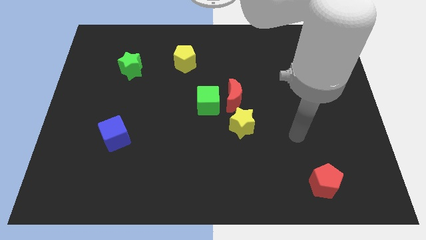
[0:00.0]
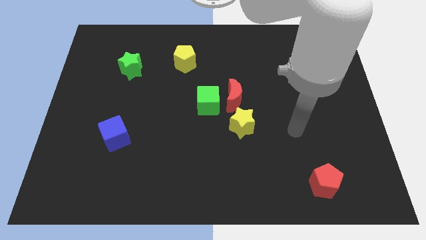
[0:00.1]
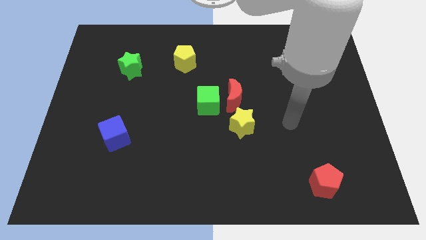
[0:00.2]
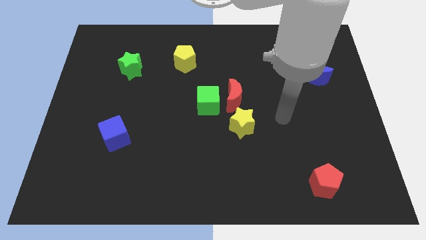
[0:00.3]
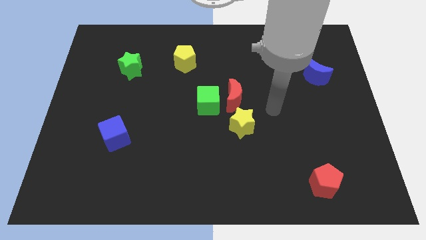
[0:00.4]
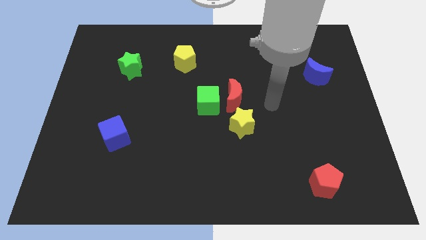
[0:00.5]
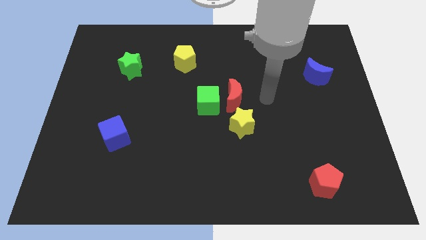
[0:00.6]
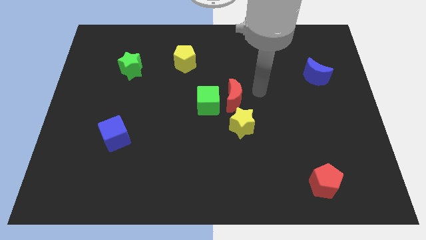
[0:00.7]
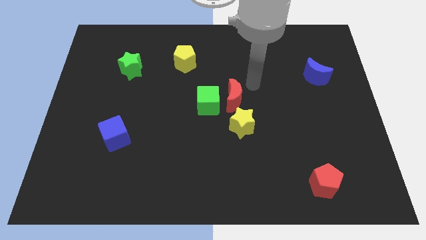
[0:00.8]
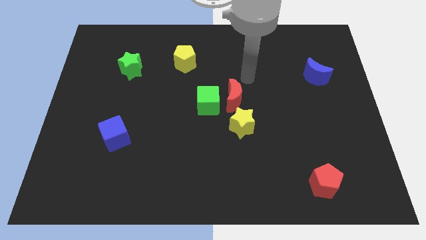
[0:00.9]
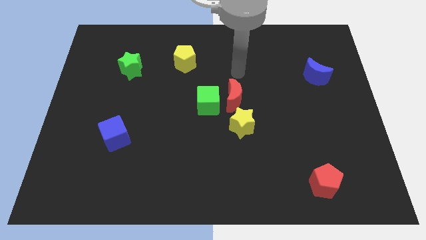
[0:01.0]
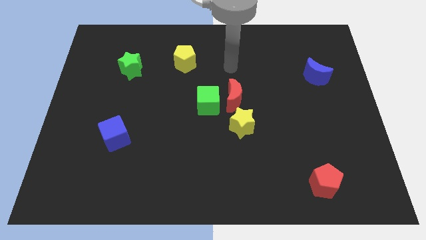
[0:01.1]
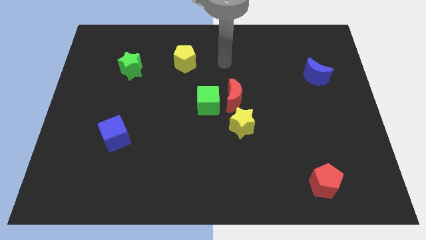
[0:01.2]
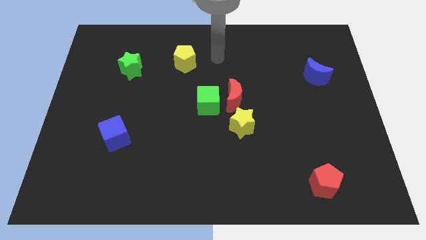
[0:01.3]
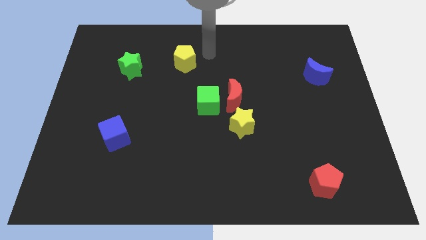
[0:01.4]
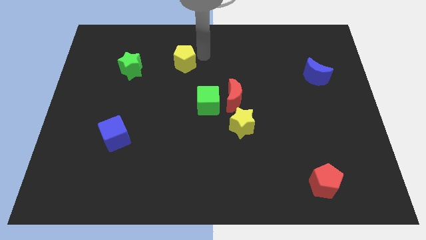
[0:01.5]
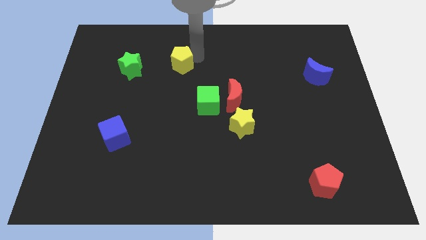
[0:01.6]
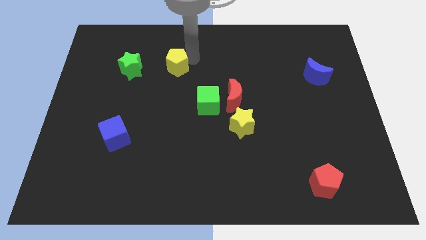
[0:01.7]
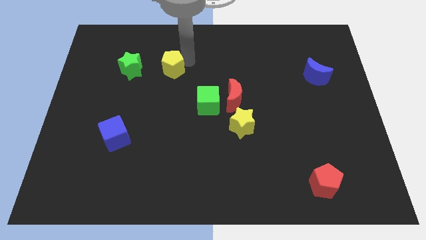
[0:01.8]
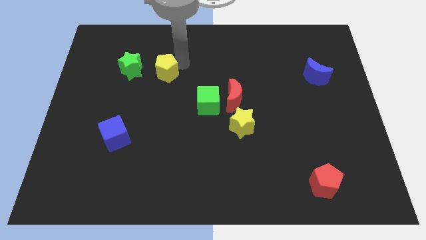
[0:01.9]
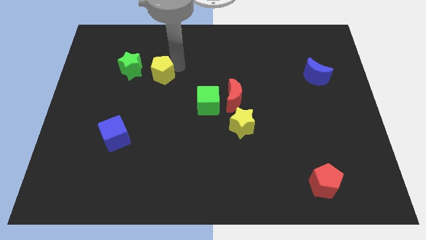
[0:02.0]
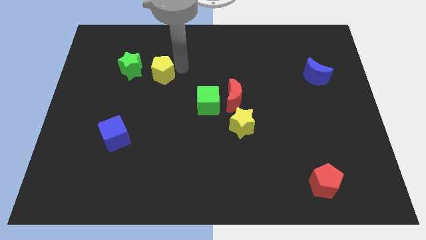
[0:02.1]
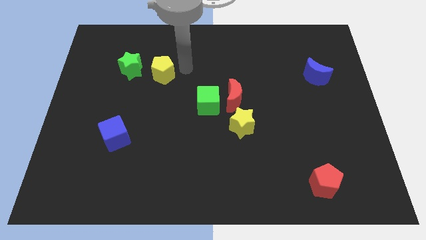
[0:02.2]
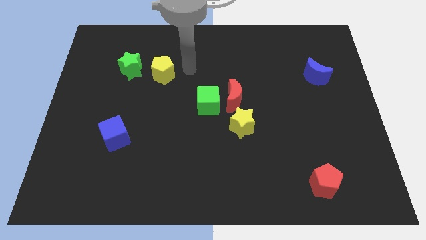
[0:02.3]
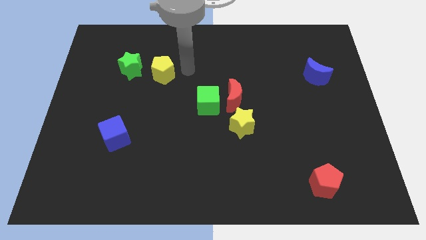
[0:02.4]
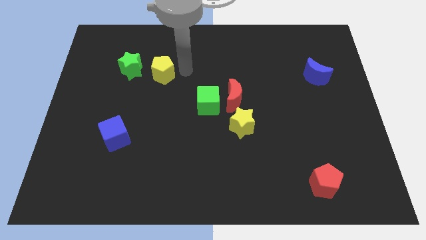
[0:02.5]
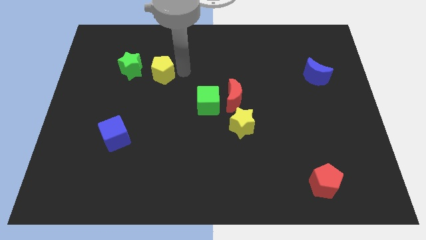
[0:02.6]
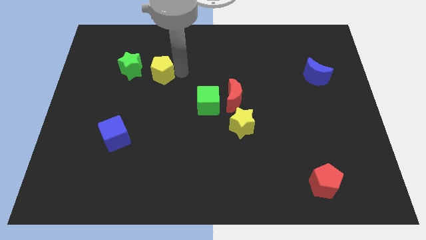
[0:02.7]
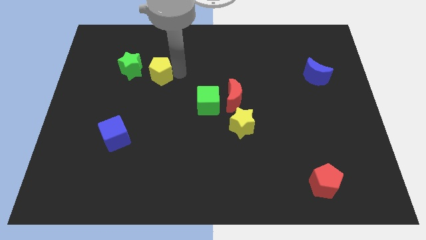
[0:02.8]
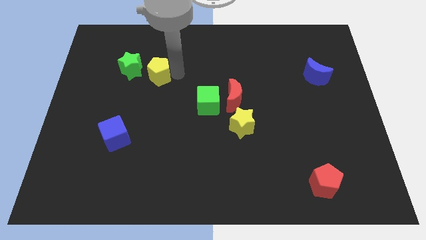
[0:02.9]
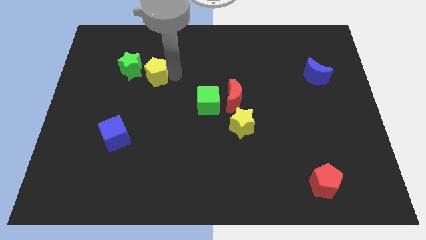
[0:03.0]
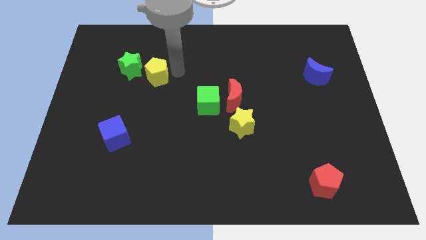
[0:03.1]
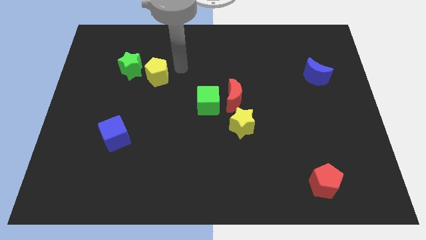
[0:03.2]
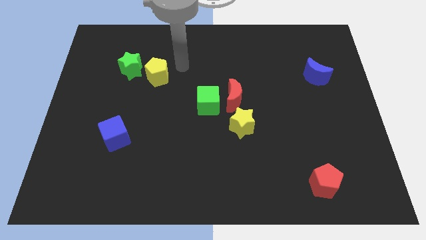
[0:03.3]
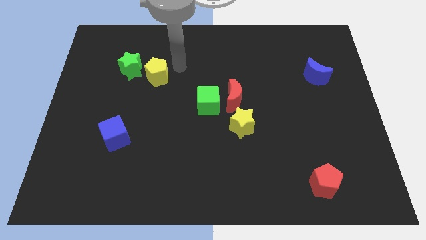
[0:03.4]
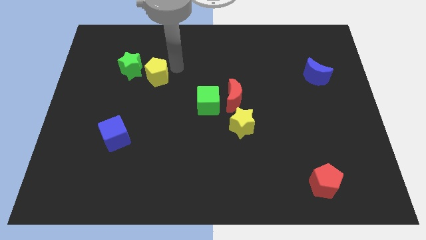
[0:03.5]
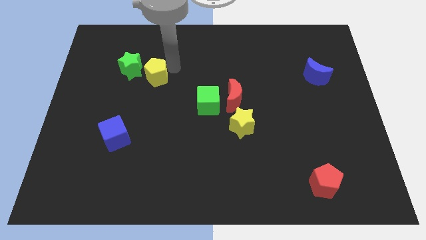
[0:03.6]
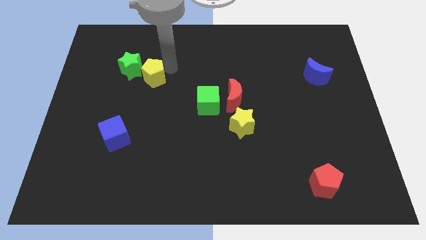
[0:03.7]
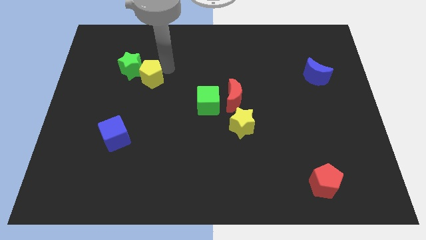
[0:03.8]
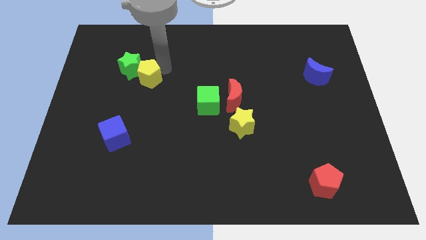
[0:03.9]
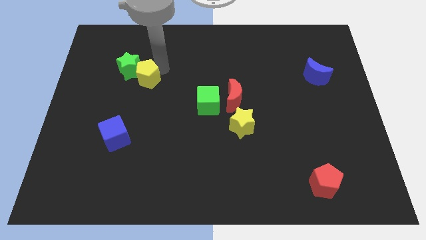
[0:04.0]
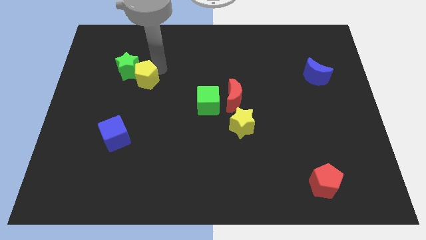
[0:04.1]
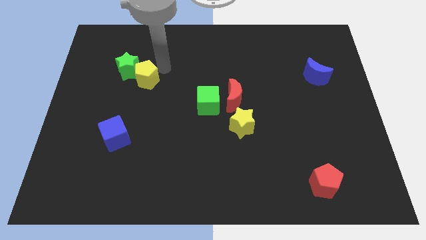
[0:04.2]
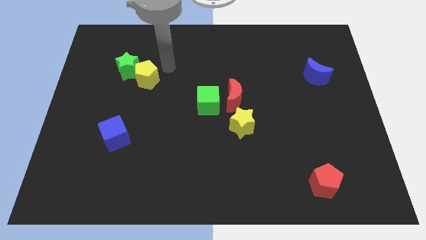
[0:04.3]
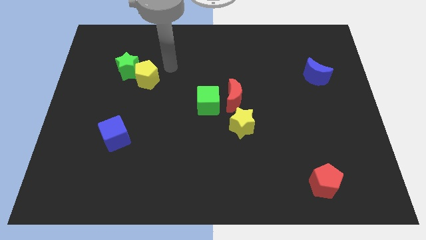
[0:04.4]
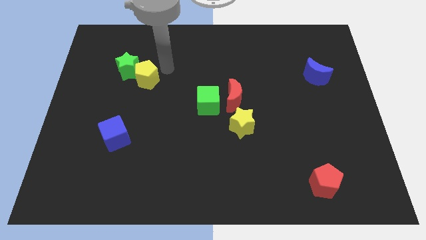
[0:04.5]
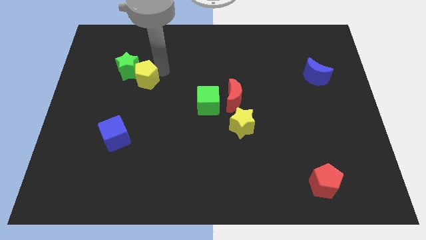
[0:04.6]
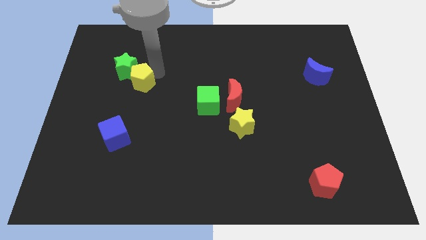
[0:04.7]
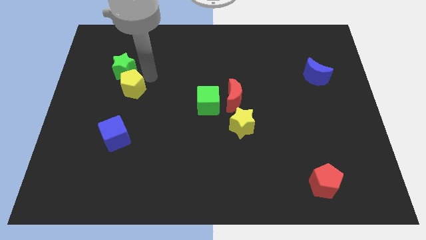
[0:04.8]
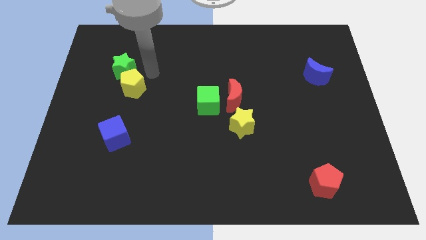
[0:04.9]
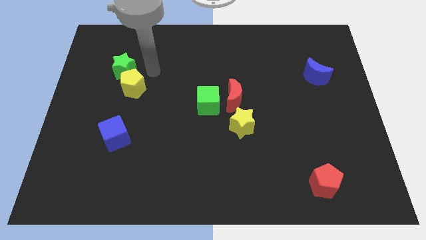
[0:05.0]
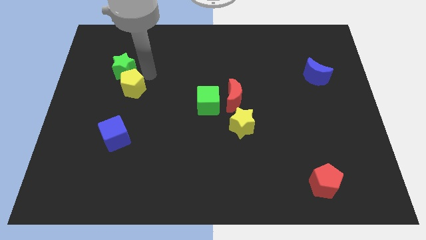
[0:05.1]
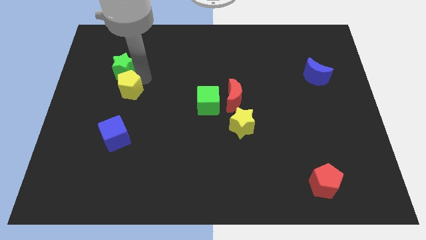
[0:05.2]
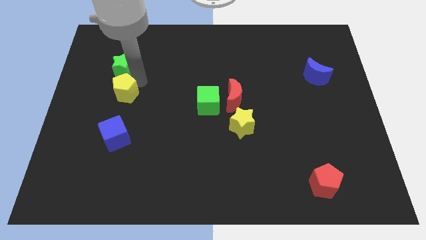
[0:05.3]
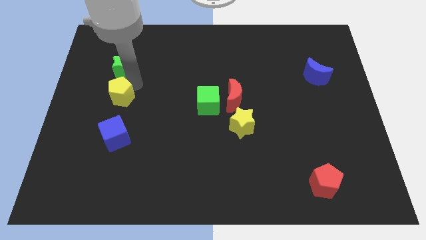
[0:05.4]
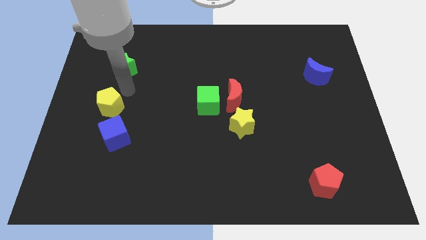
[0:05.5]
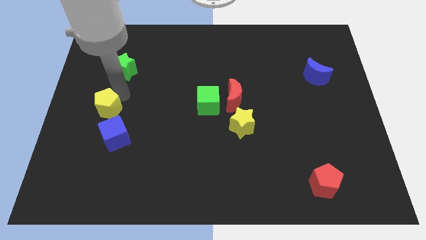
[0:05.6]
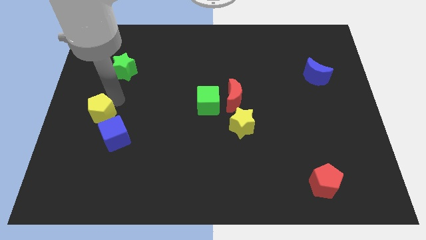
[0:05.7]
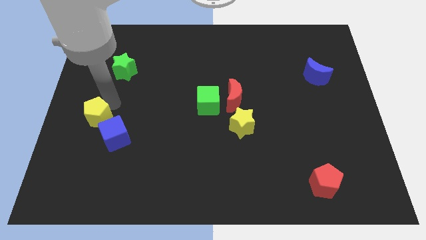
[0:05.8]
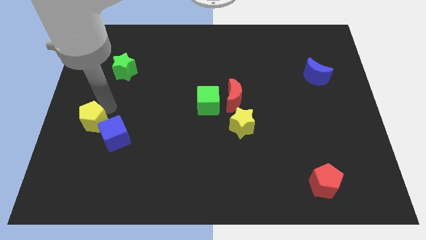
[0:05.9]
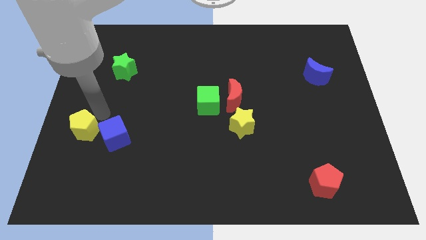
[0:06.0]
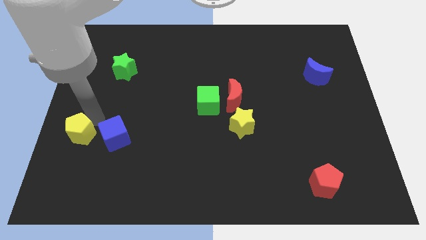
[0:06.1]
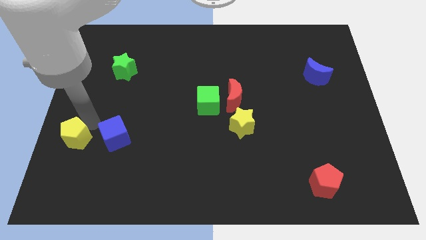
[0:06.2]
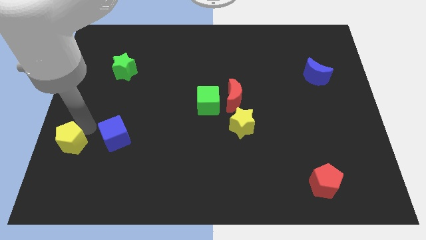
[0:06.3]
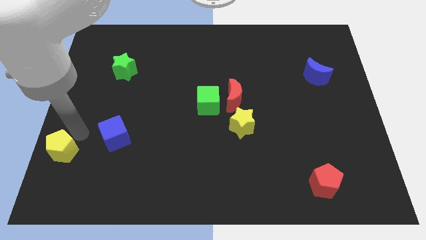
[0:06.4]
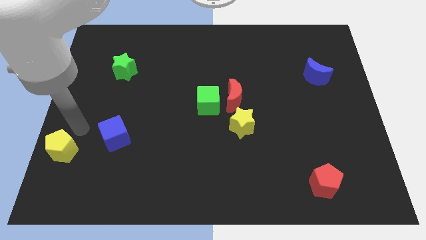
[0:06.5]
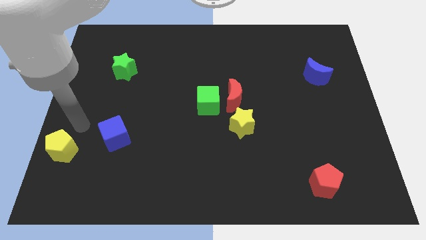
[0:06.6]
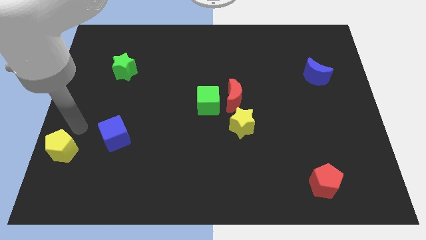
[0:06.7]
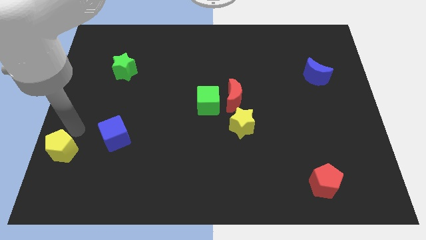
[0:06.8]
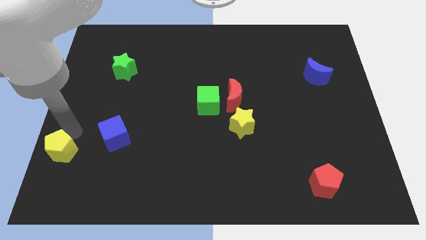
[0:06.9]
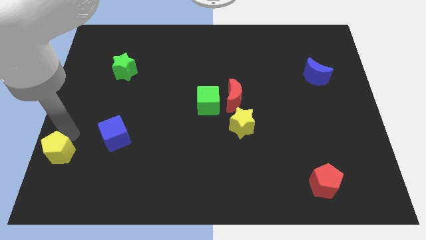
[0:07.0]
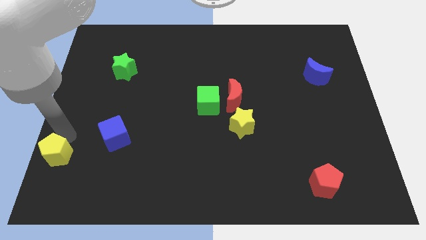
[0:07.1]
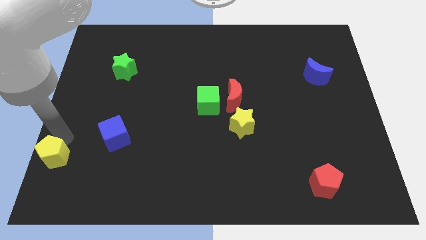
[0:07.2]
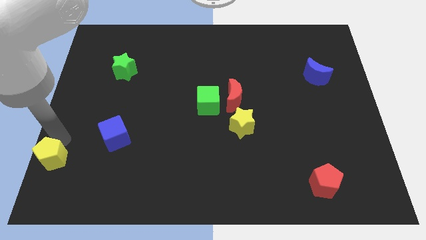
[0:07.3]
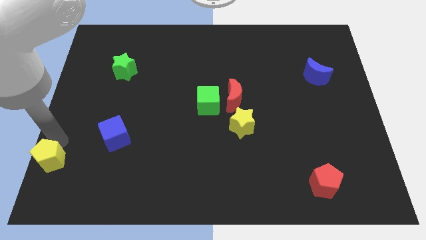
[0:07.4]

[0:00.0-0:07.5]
slide the yellow pentagon to the lower left corner

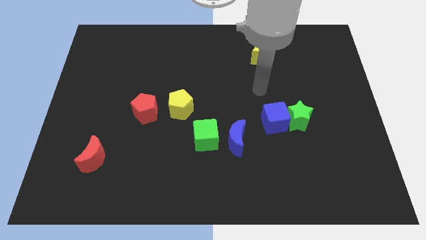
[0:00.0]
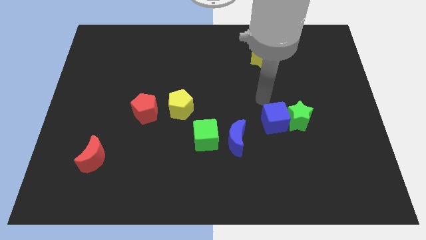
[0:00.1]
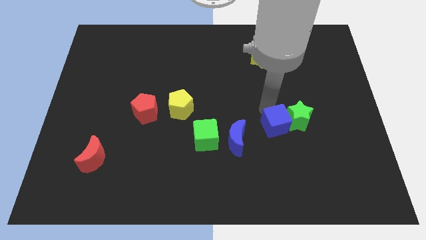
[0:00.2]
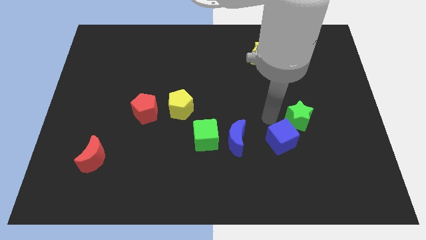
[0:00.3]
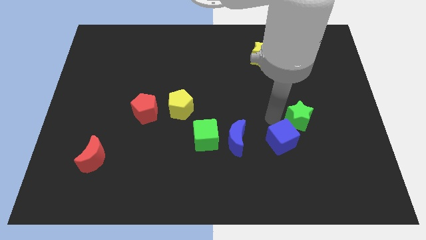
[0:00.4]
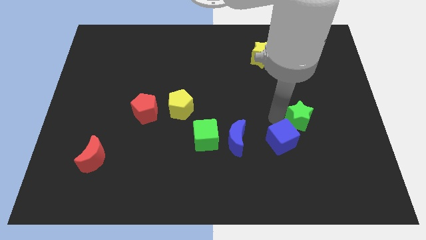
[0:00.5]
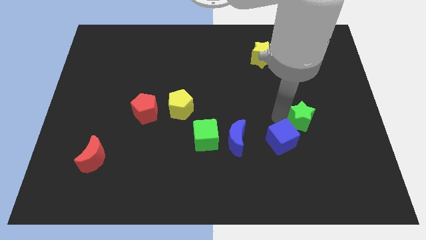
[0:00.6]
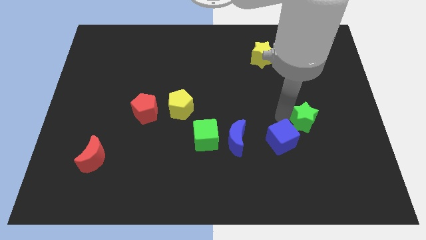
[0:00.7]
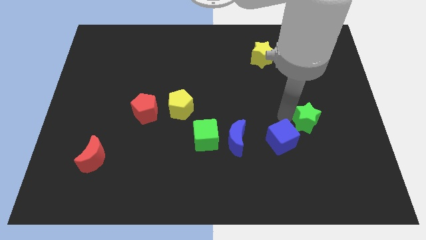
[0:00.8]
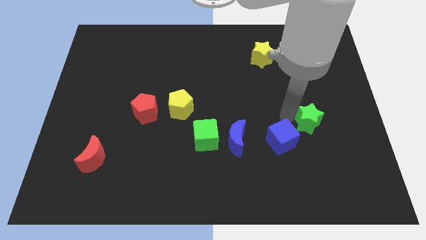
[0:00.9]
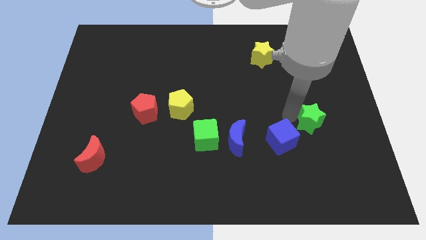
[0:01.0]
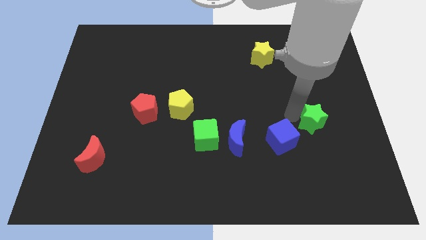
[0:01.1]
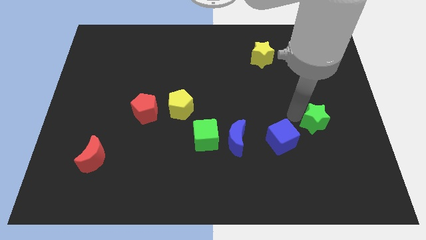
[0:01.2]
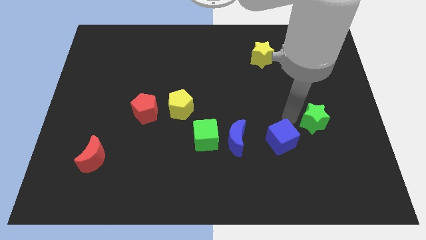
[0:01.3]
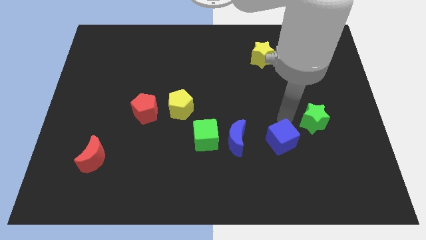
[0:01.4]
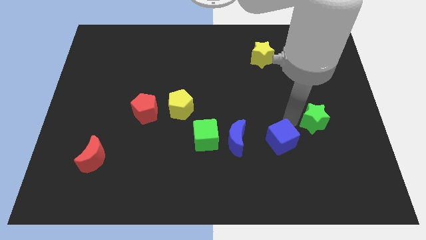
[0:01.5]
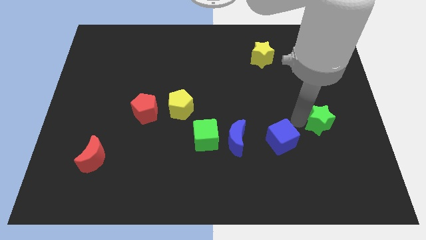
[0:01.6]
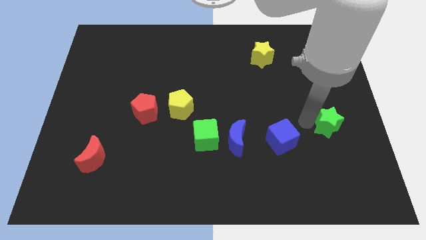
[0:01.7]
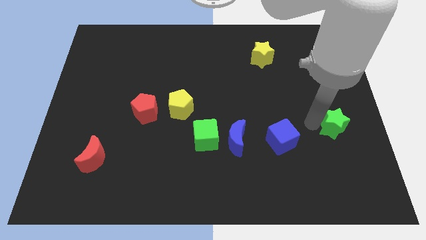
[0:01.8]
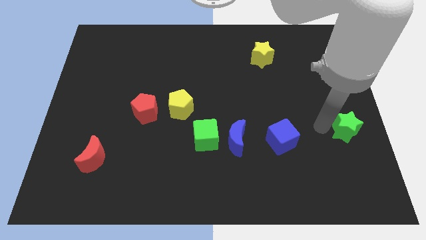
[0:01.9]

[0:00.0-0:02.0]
move the green star to the right side of the board
